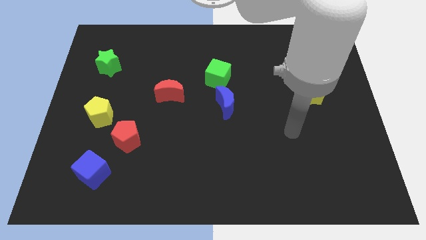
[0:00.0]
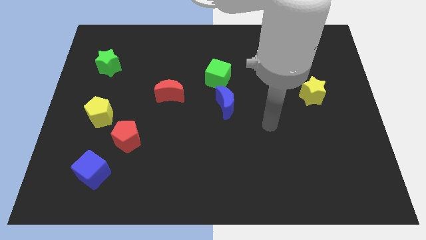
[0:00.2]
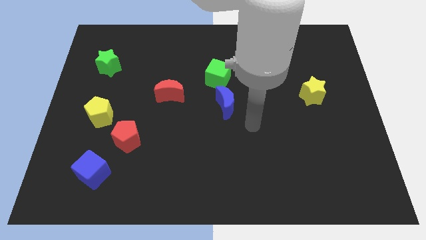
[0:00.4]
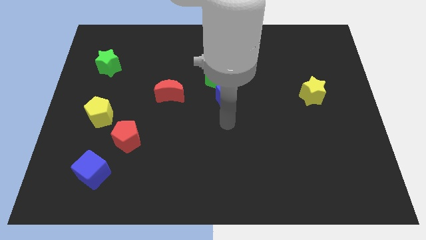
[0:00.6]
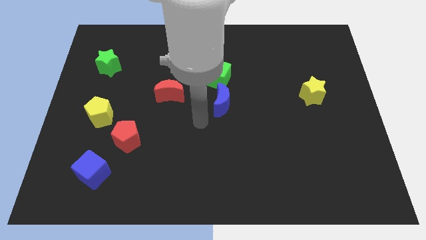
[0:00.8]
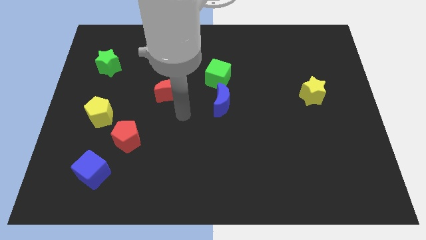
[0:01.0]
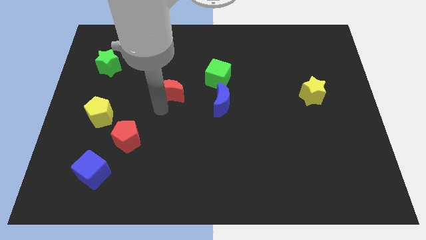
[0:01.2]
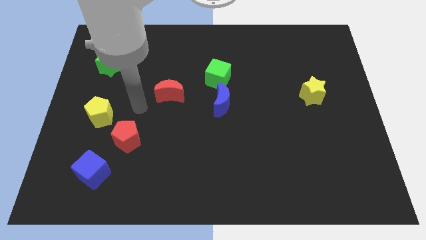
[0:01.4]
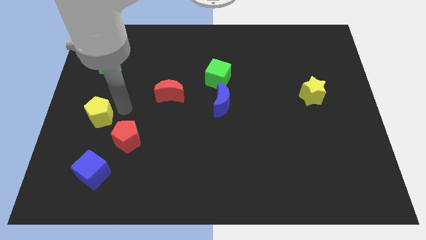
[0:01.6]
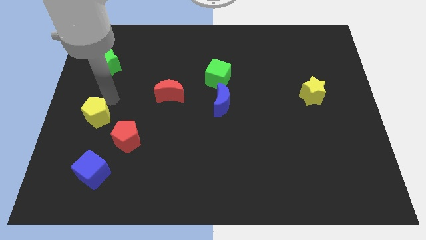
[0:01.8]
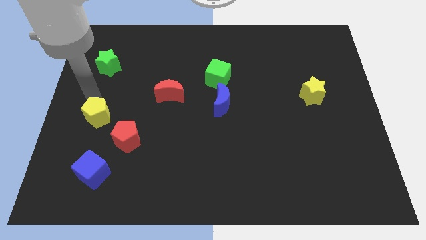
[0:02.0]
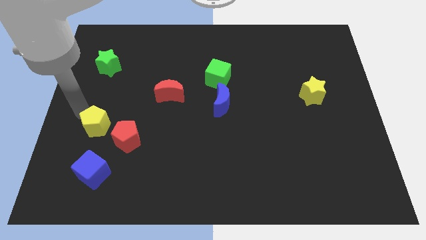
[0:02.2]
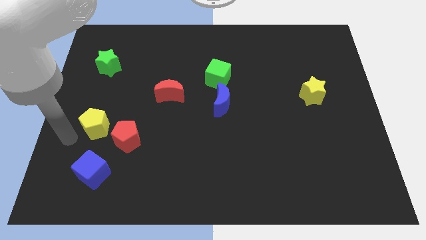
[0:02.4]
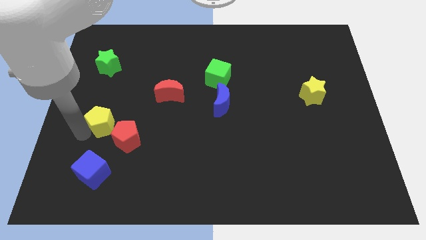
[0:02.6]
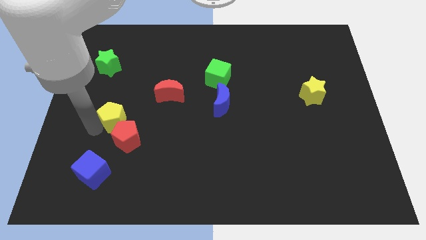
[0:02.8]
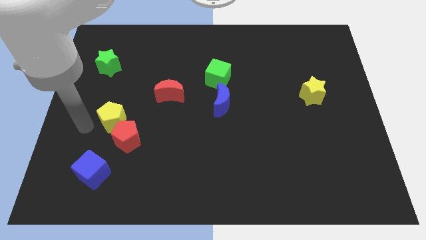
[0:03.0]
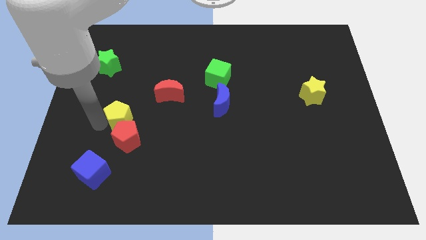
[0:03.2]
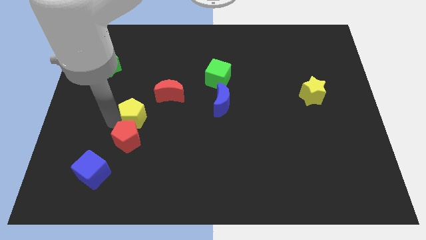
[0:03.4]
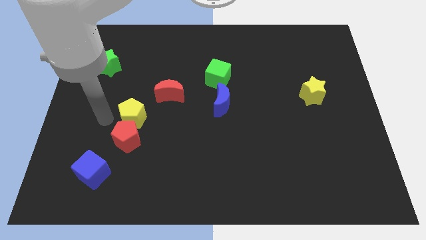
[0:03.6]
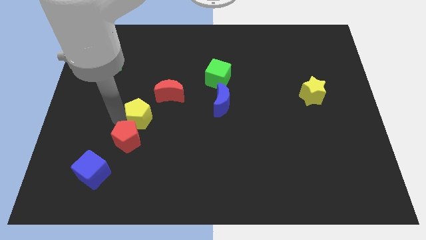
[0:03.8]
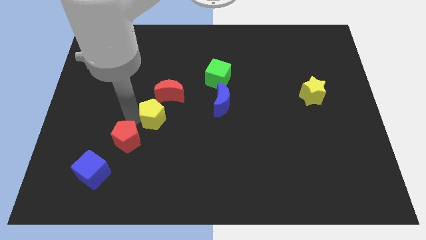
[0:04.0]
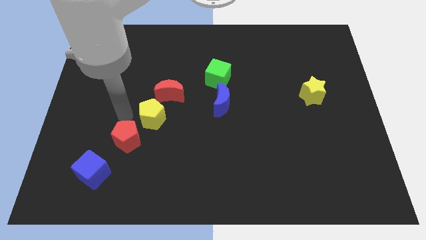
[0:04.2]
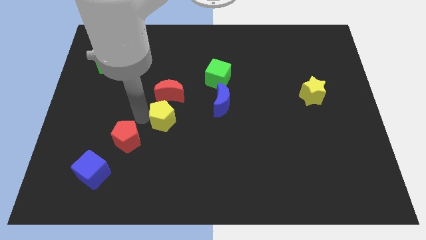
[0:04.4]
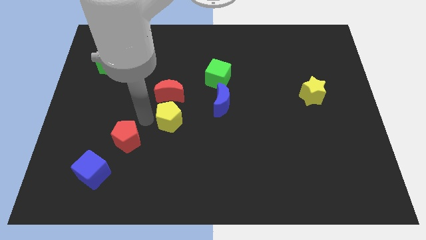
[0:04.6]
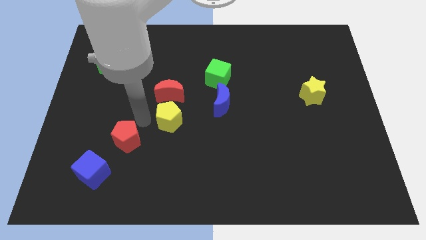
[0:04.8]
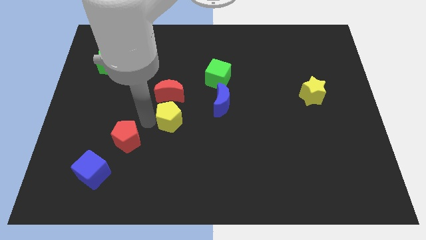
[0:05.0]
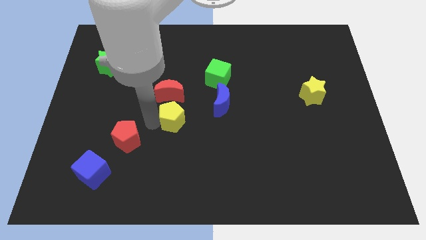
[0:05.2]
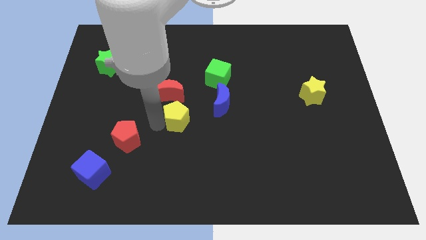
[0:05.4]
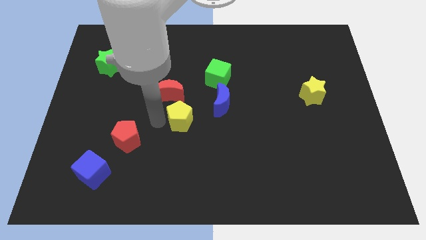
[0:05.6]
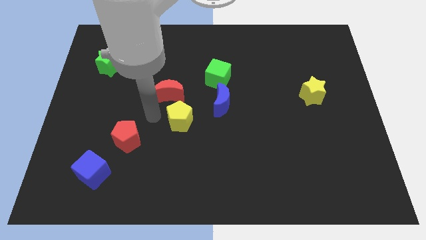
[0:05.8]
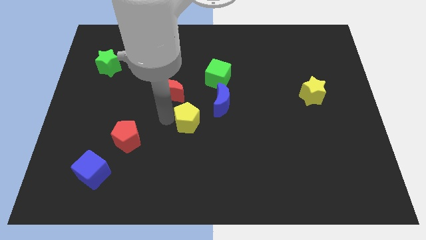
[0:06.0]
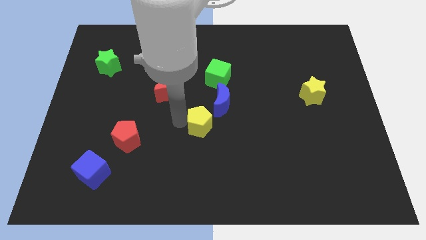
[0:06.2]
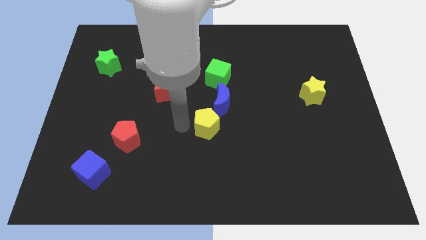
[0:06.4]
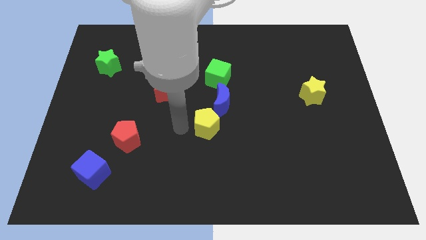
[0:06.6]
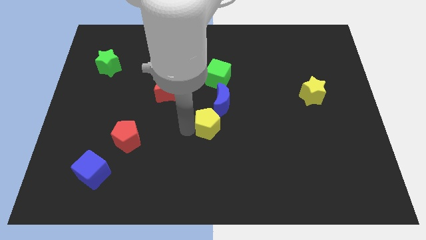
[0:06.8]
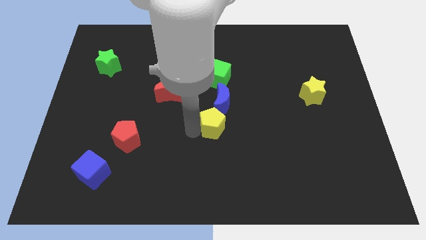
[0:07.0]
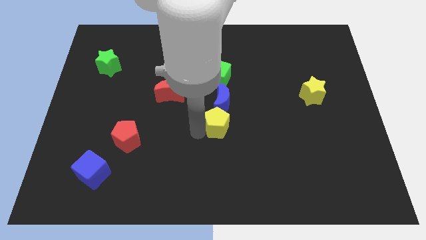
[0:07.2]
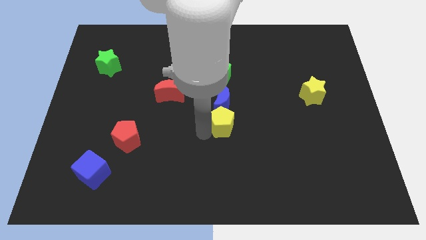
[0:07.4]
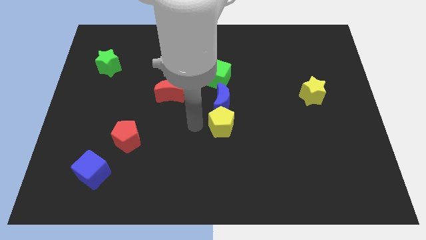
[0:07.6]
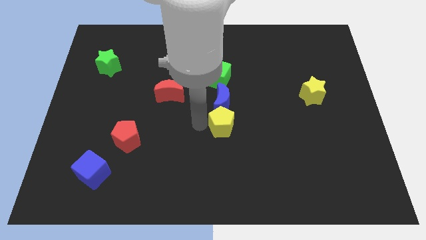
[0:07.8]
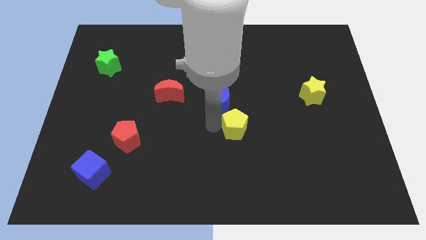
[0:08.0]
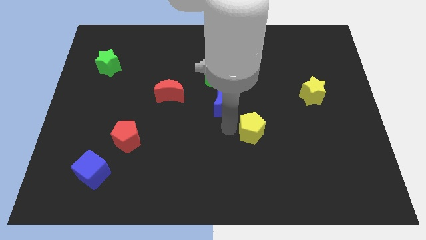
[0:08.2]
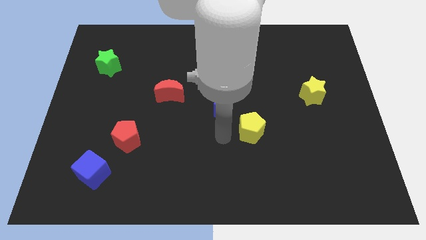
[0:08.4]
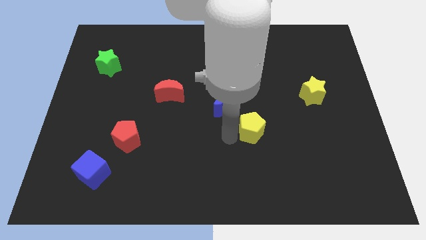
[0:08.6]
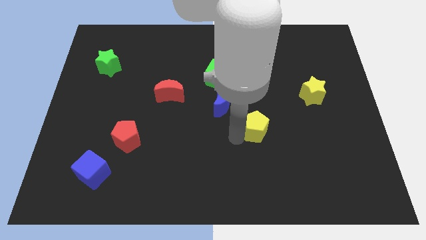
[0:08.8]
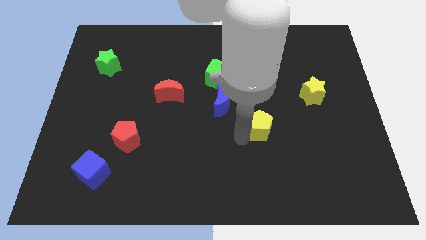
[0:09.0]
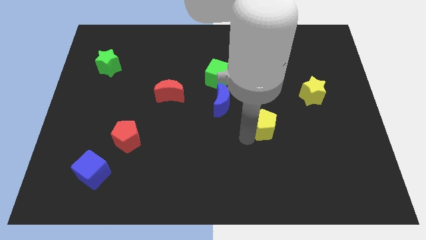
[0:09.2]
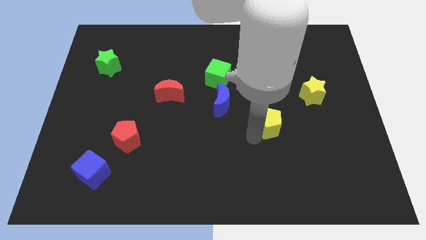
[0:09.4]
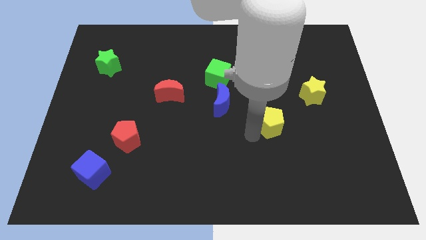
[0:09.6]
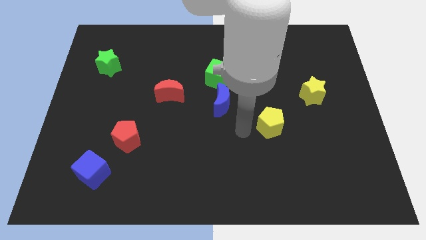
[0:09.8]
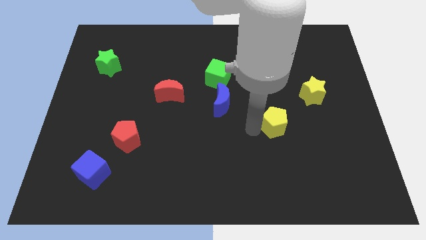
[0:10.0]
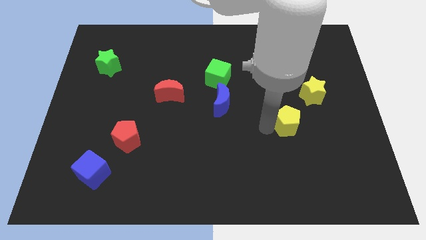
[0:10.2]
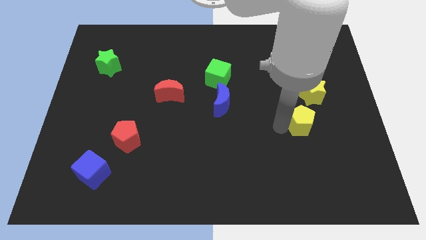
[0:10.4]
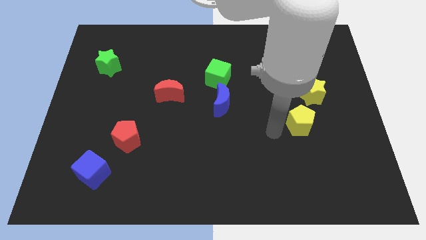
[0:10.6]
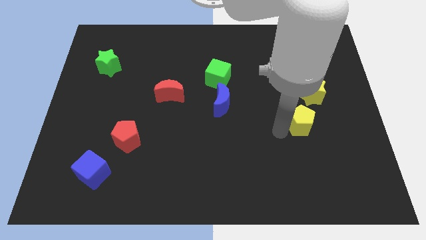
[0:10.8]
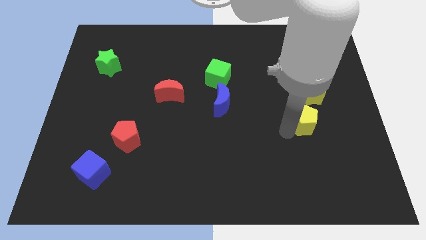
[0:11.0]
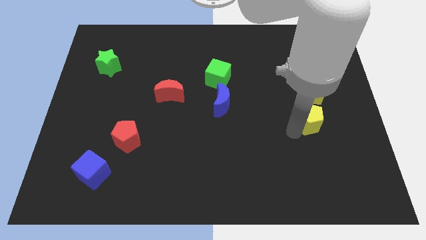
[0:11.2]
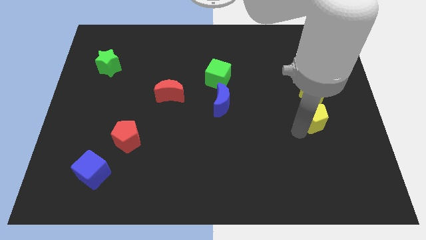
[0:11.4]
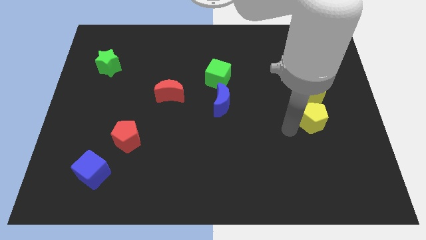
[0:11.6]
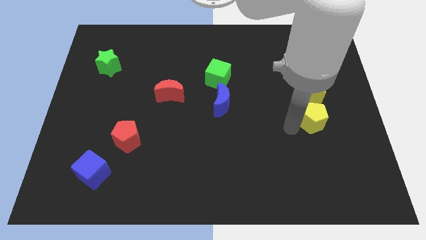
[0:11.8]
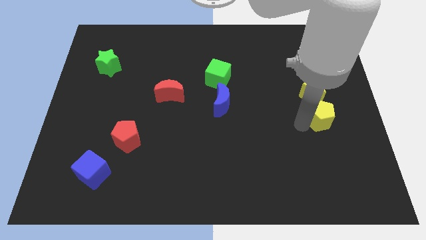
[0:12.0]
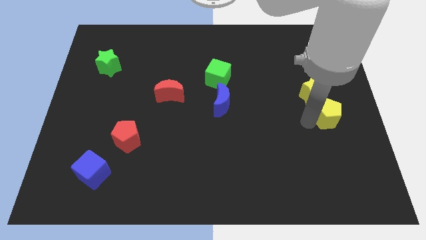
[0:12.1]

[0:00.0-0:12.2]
push the yellow pentagon to the center right

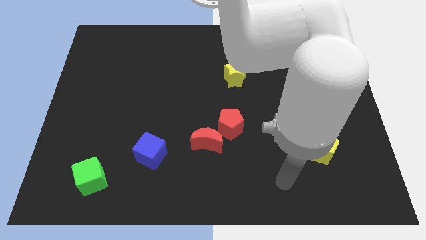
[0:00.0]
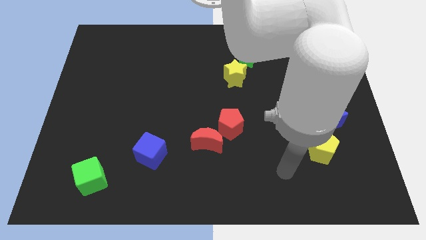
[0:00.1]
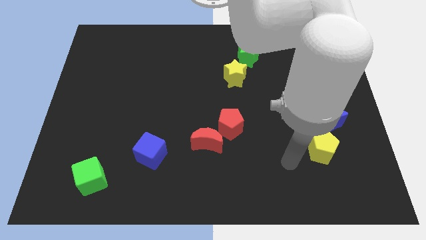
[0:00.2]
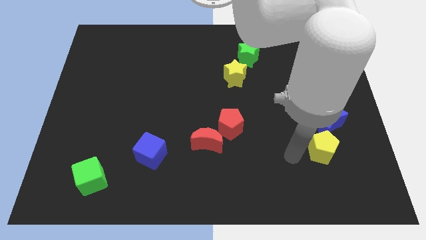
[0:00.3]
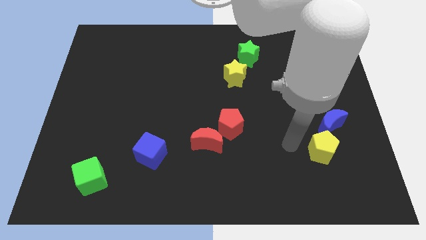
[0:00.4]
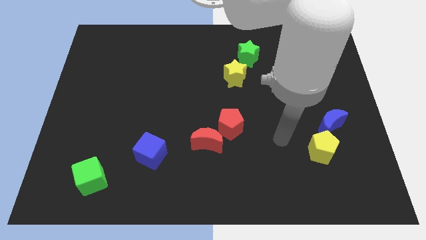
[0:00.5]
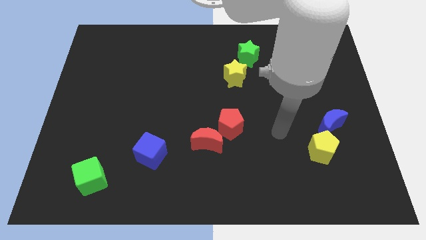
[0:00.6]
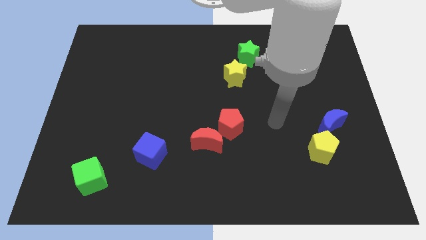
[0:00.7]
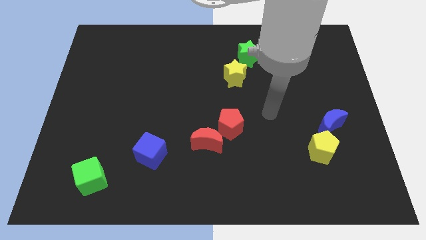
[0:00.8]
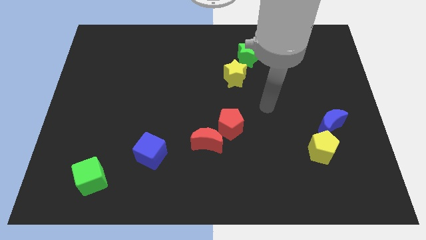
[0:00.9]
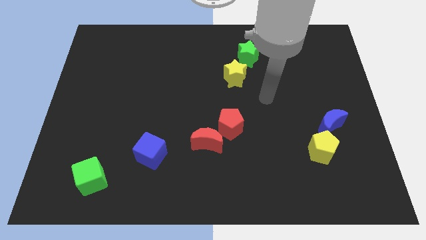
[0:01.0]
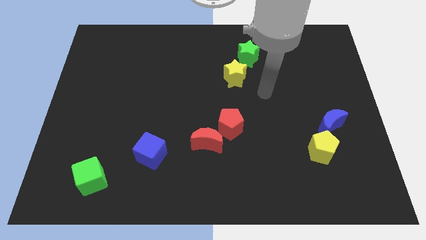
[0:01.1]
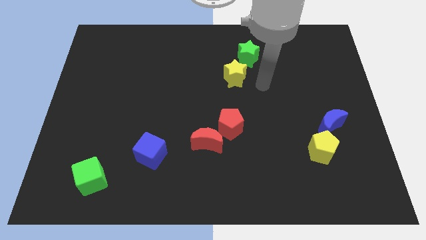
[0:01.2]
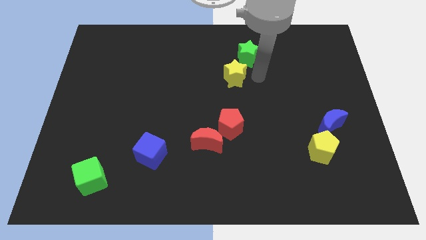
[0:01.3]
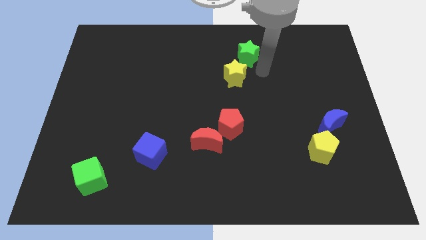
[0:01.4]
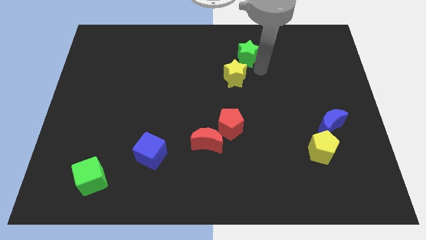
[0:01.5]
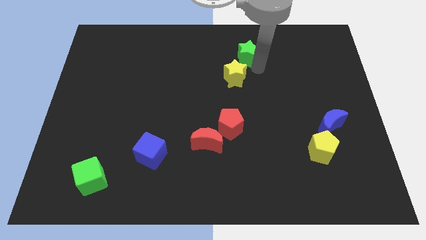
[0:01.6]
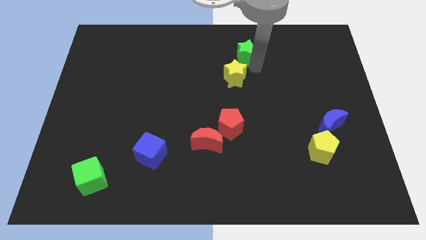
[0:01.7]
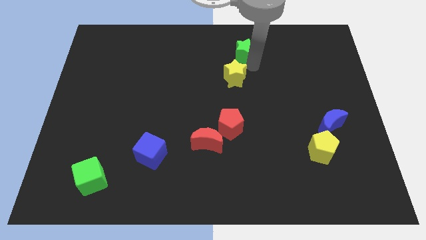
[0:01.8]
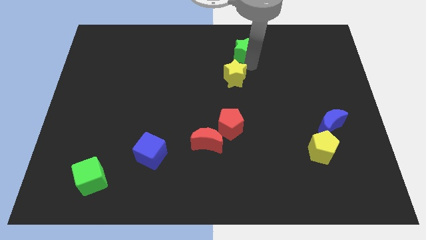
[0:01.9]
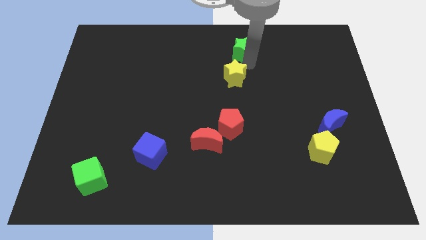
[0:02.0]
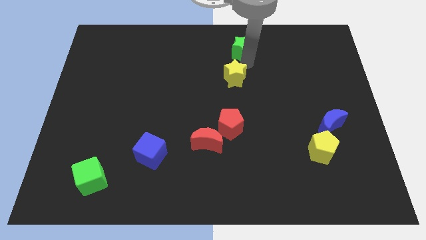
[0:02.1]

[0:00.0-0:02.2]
push the green star to the towards your base
